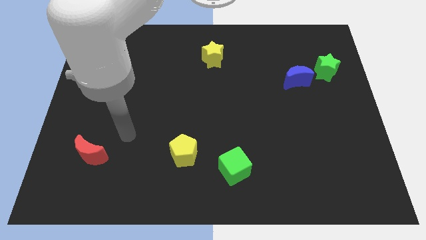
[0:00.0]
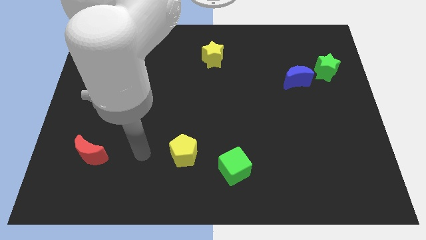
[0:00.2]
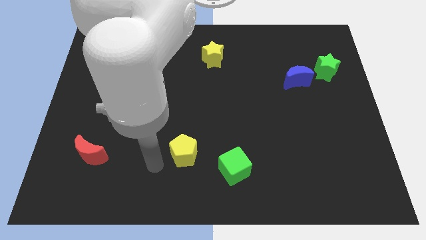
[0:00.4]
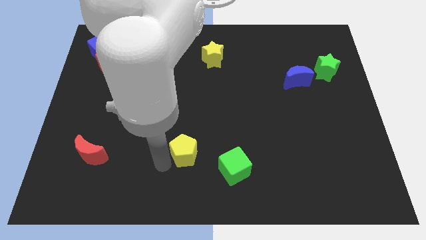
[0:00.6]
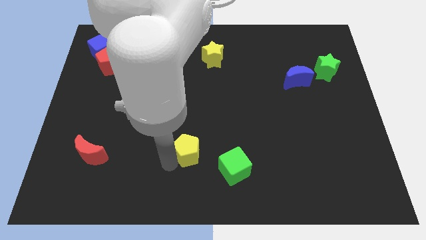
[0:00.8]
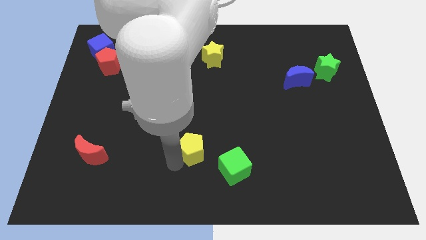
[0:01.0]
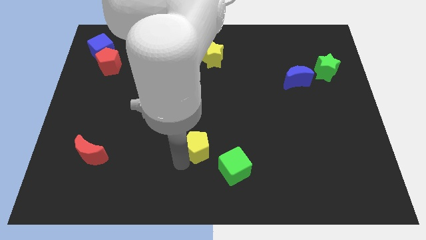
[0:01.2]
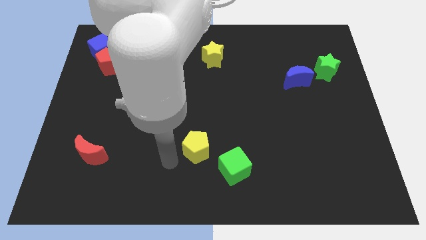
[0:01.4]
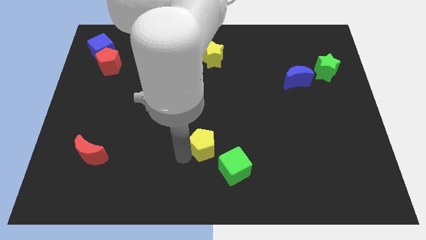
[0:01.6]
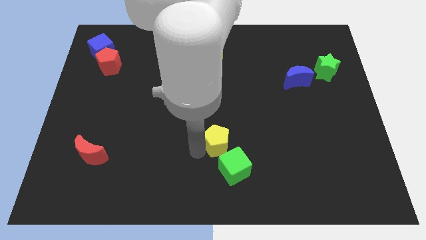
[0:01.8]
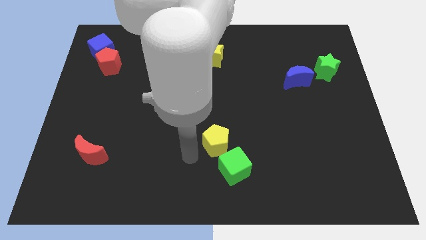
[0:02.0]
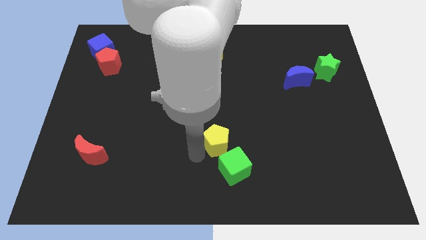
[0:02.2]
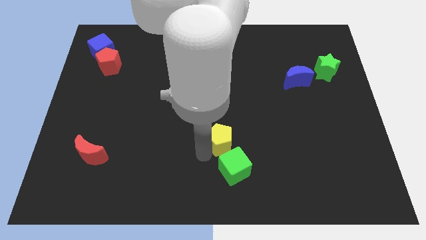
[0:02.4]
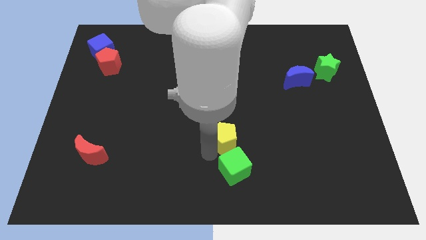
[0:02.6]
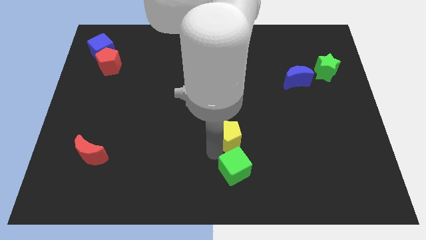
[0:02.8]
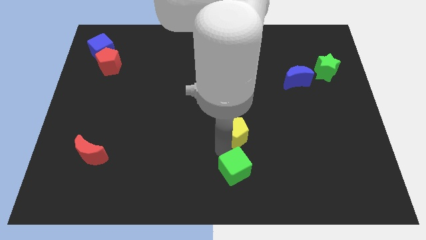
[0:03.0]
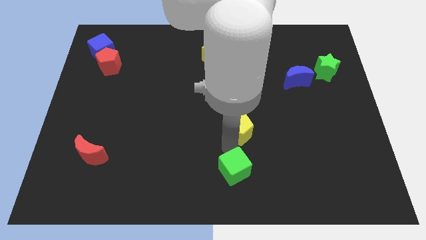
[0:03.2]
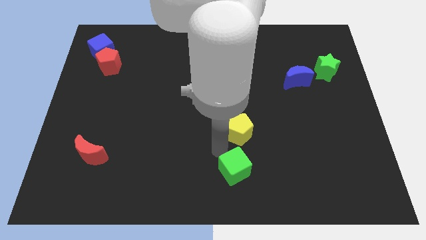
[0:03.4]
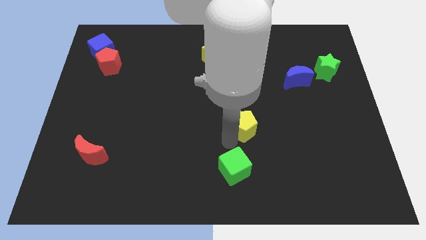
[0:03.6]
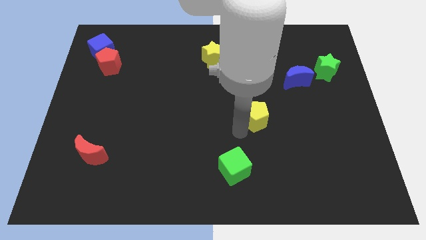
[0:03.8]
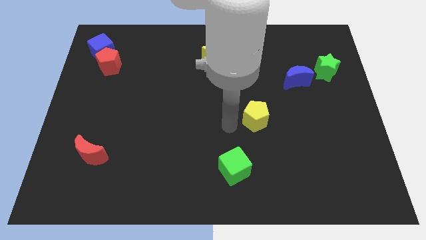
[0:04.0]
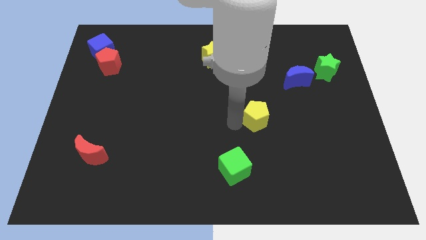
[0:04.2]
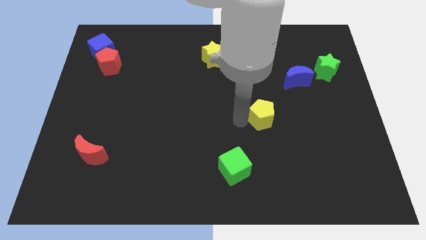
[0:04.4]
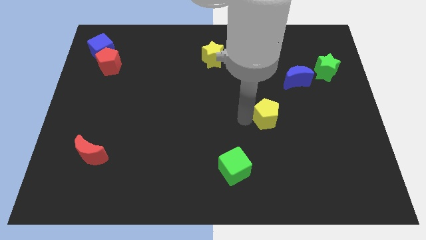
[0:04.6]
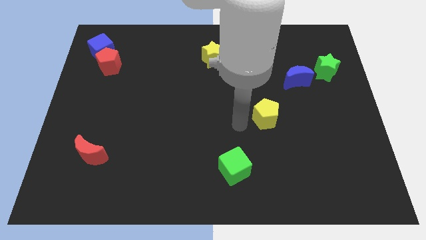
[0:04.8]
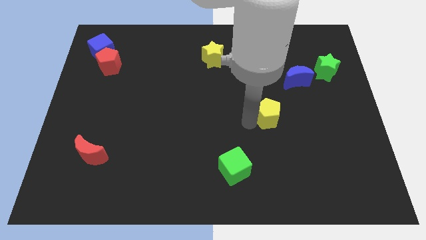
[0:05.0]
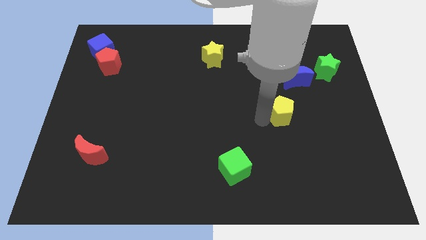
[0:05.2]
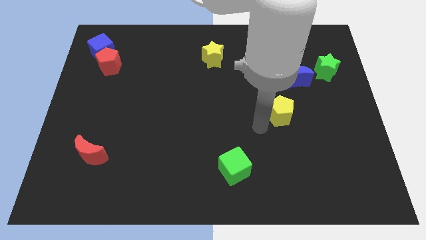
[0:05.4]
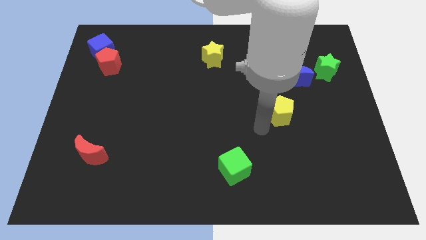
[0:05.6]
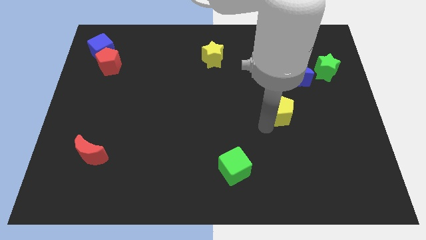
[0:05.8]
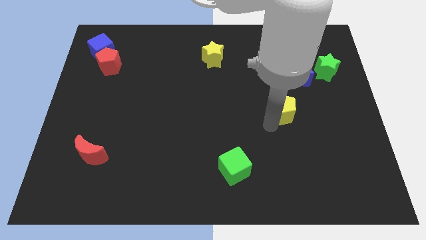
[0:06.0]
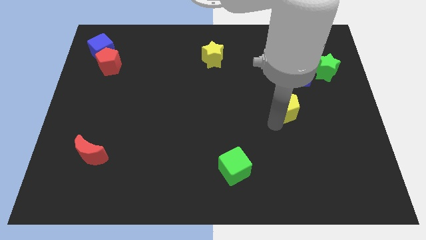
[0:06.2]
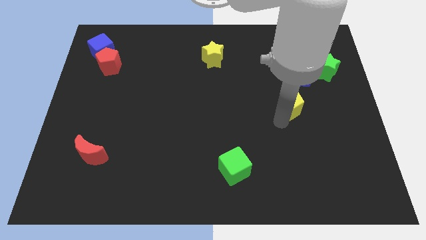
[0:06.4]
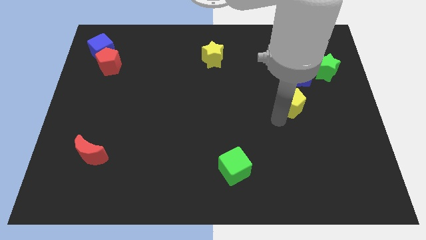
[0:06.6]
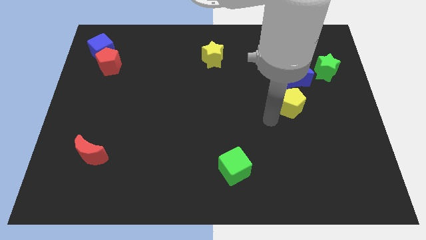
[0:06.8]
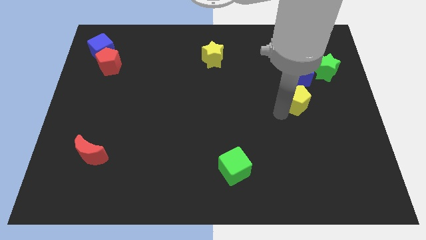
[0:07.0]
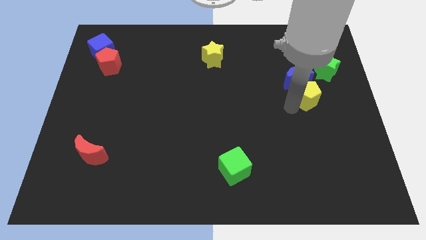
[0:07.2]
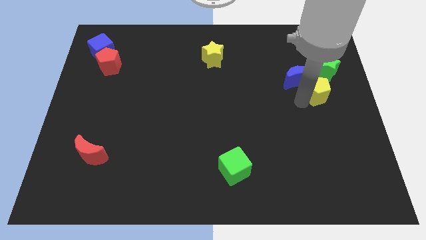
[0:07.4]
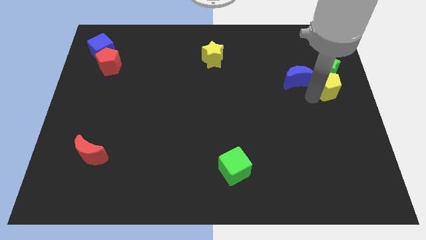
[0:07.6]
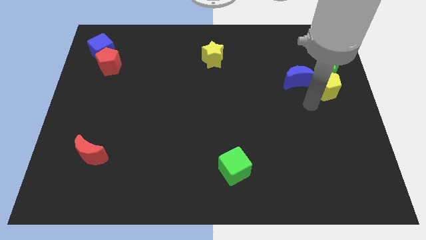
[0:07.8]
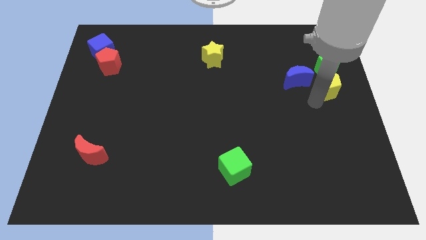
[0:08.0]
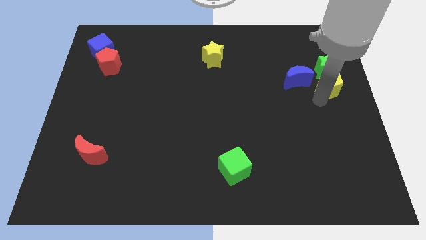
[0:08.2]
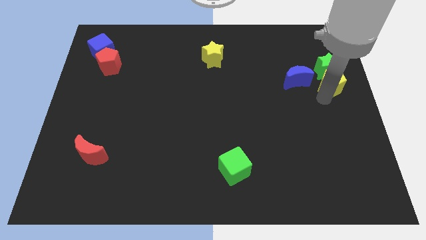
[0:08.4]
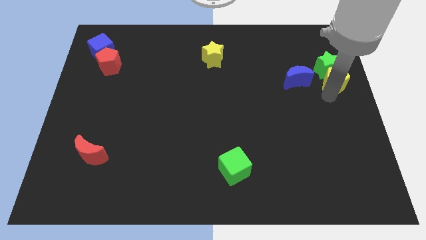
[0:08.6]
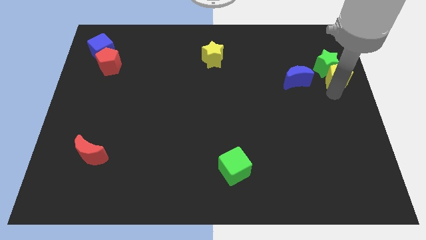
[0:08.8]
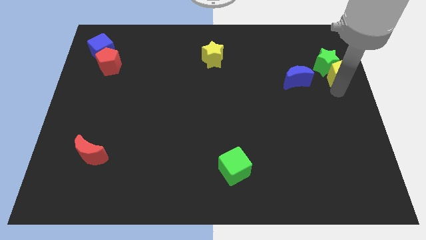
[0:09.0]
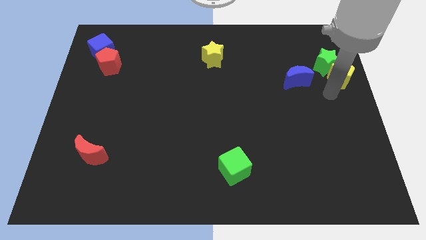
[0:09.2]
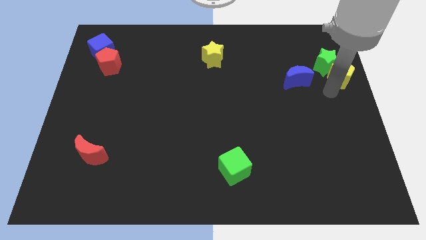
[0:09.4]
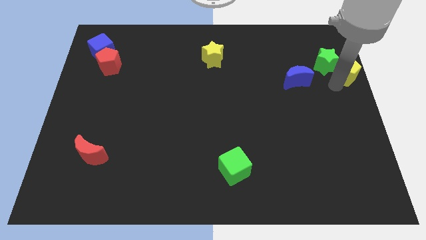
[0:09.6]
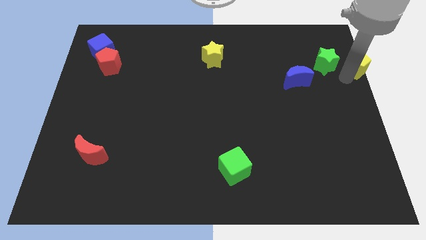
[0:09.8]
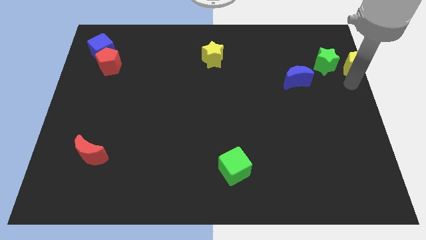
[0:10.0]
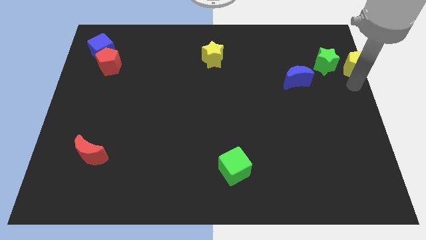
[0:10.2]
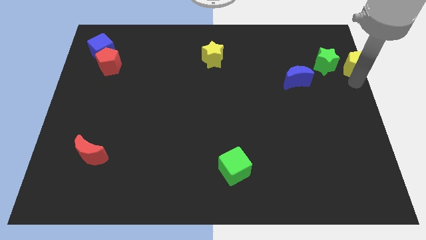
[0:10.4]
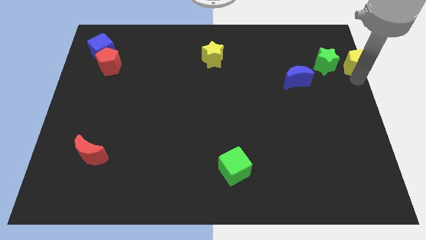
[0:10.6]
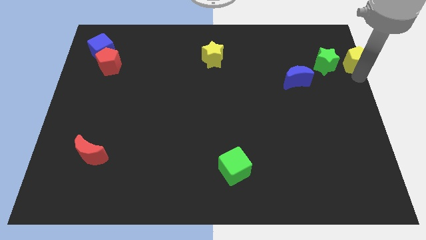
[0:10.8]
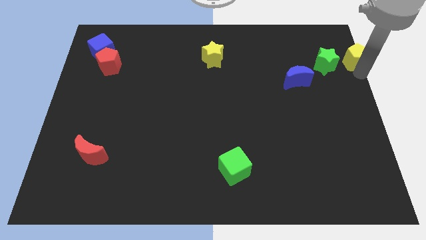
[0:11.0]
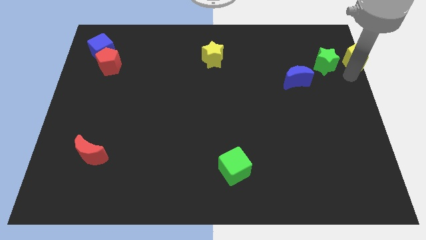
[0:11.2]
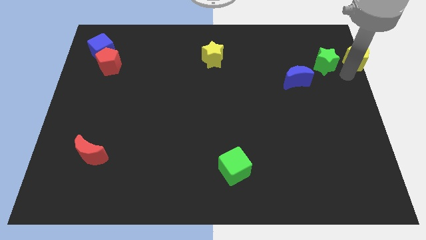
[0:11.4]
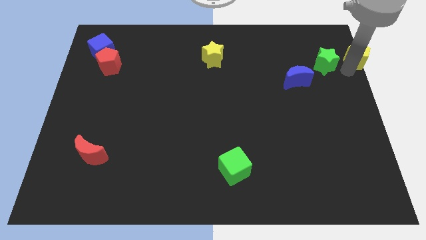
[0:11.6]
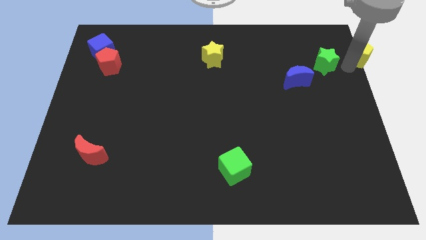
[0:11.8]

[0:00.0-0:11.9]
slide the yellow pentagon to the upper right corner

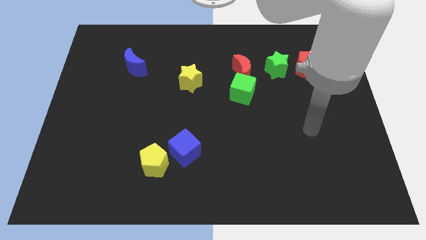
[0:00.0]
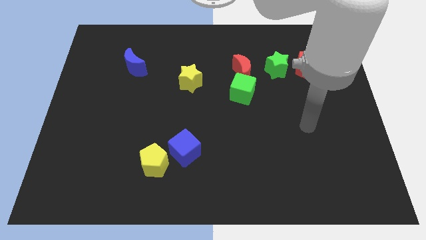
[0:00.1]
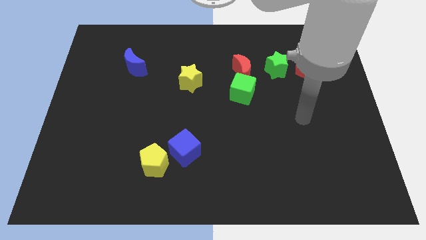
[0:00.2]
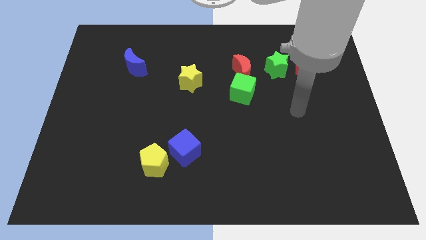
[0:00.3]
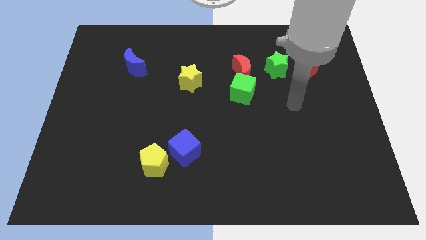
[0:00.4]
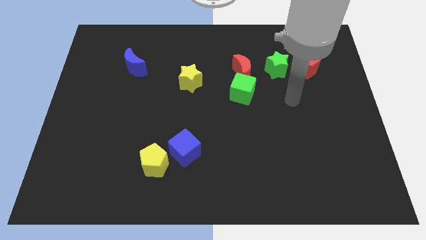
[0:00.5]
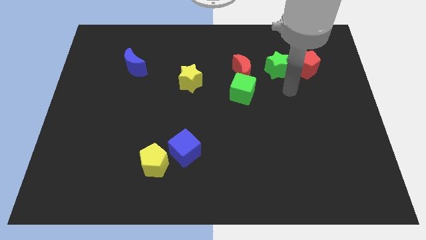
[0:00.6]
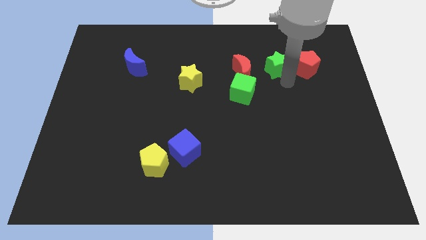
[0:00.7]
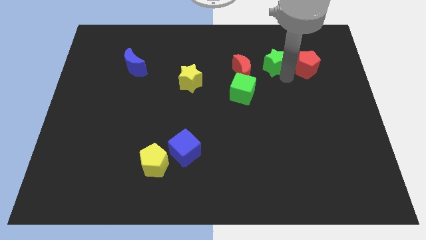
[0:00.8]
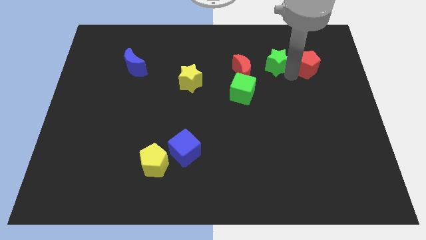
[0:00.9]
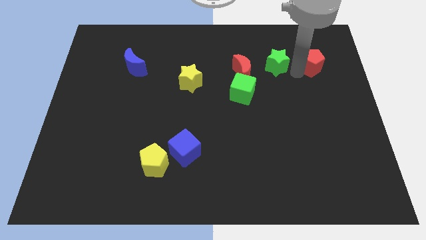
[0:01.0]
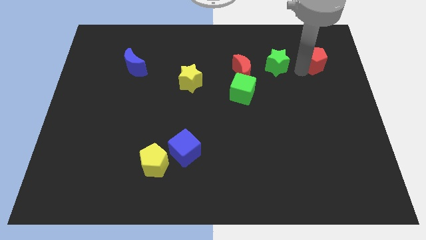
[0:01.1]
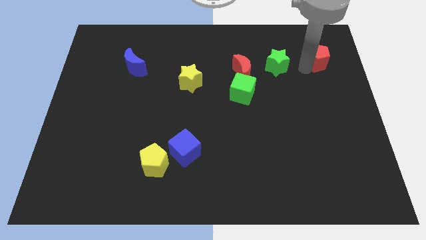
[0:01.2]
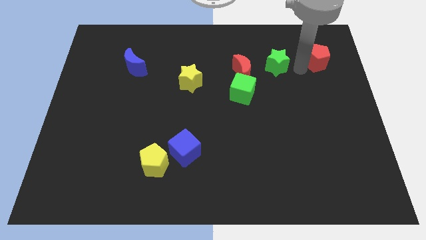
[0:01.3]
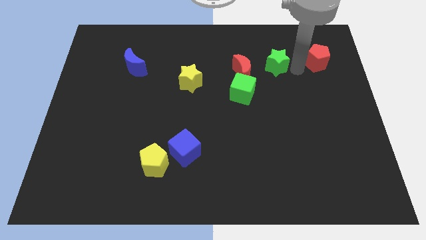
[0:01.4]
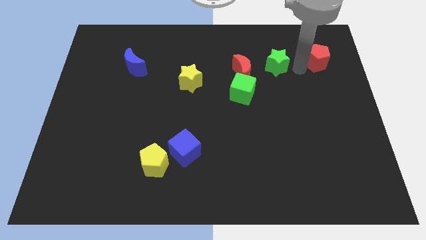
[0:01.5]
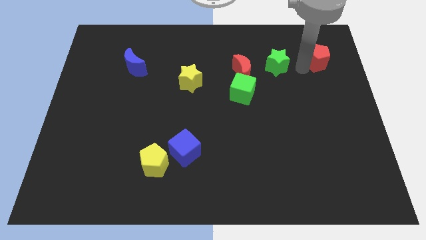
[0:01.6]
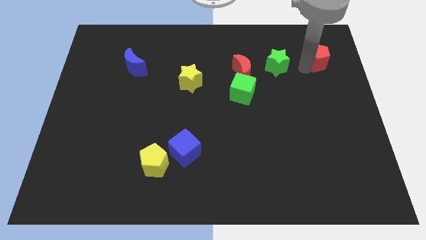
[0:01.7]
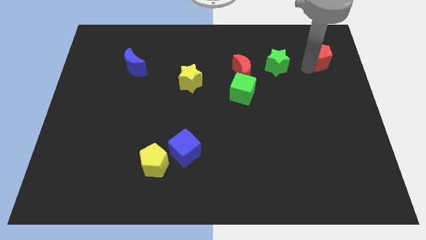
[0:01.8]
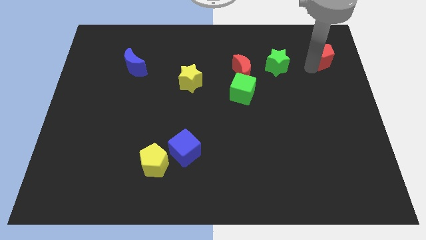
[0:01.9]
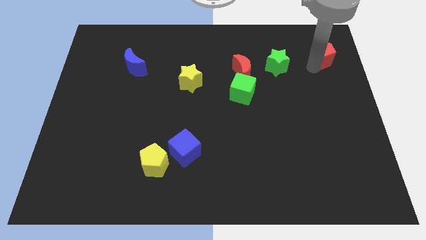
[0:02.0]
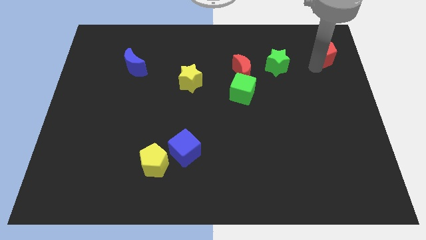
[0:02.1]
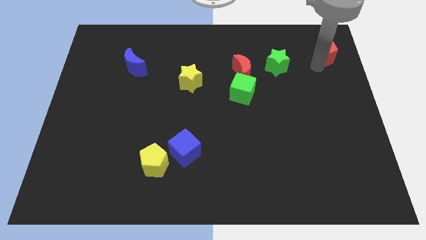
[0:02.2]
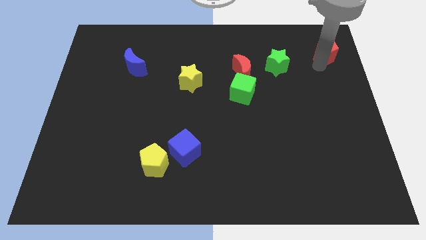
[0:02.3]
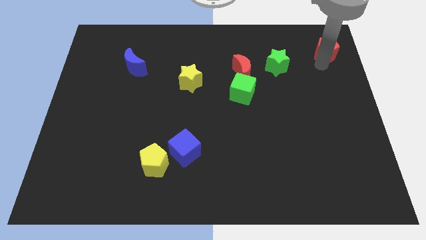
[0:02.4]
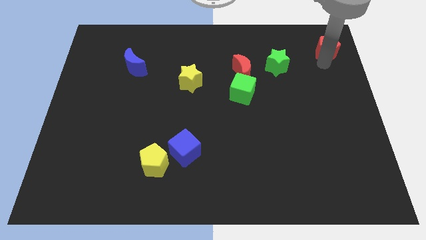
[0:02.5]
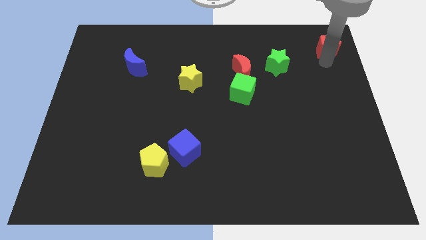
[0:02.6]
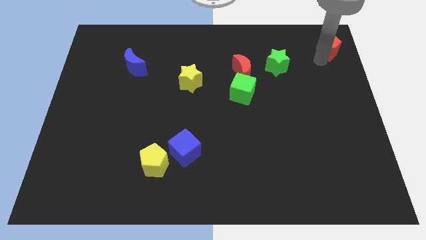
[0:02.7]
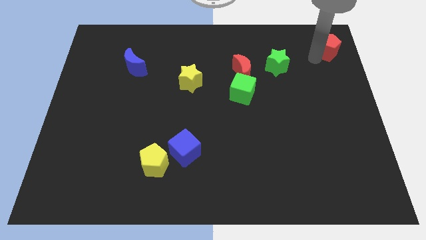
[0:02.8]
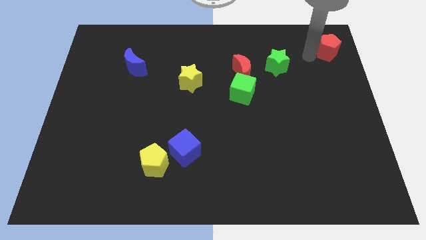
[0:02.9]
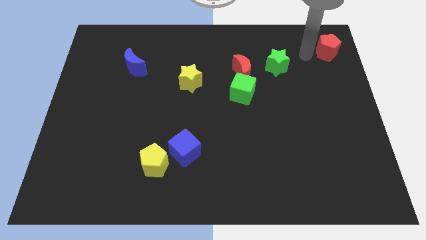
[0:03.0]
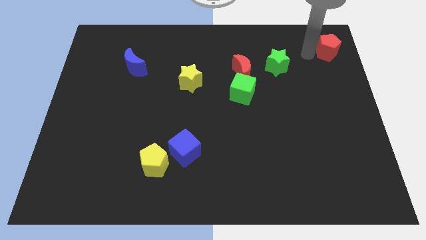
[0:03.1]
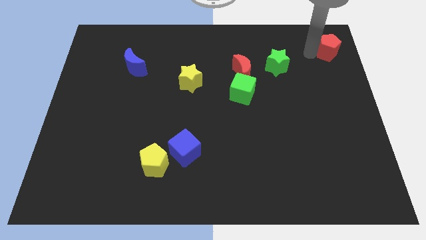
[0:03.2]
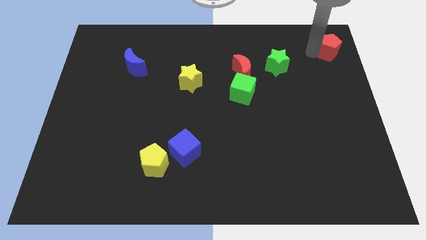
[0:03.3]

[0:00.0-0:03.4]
push the red pentagon to the top right
